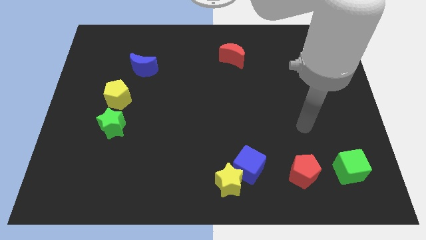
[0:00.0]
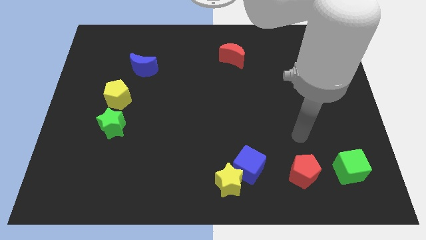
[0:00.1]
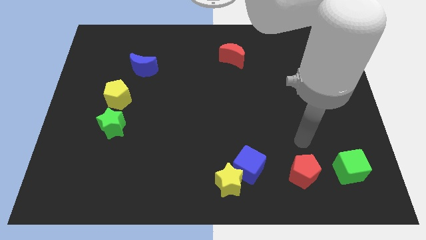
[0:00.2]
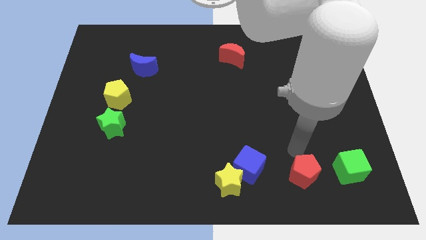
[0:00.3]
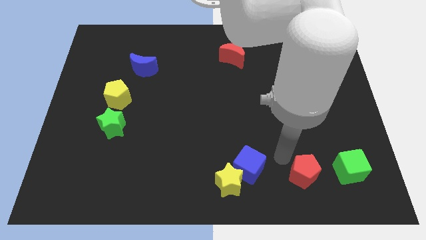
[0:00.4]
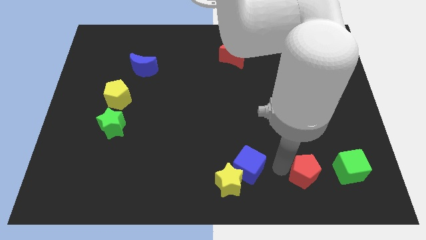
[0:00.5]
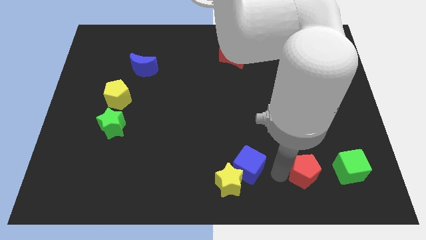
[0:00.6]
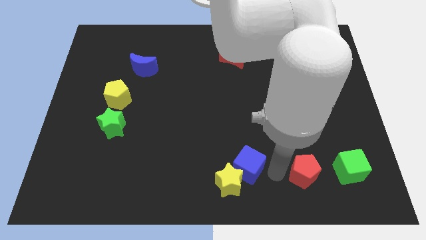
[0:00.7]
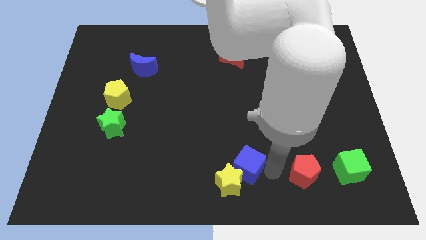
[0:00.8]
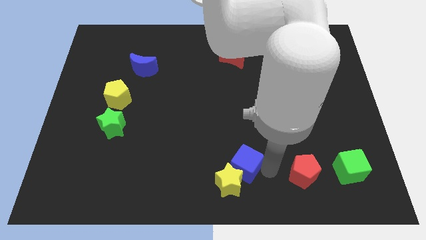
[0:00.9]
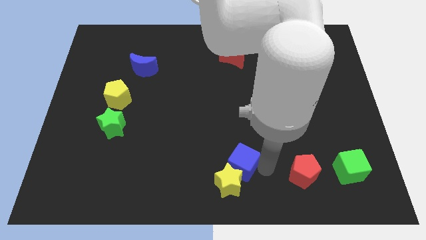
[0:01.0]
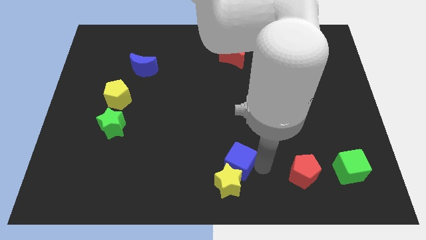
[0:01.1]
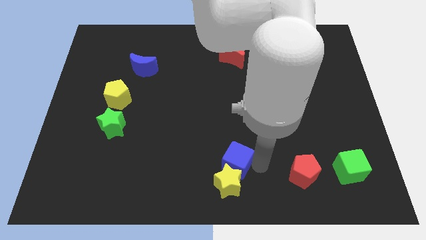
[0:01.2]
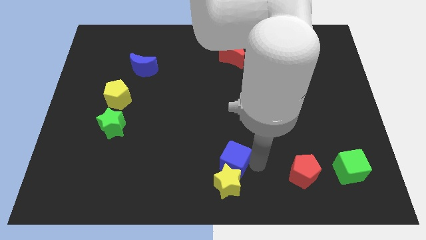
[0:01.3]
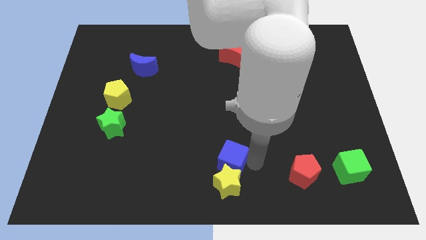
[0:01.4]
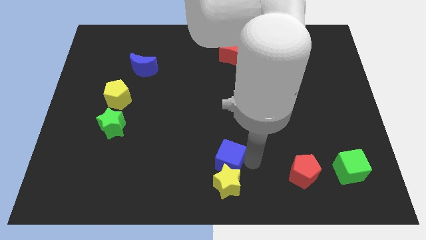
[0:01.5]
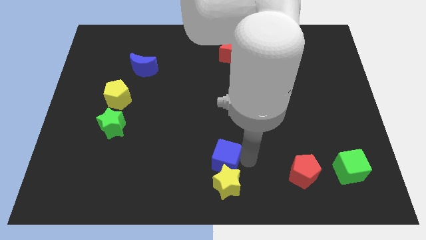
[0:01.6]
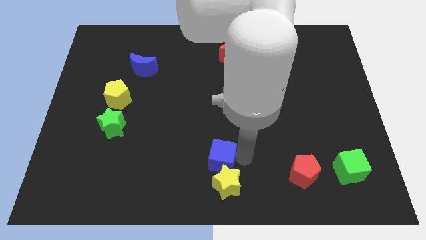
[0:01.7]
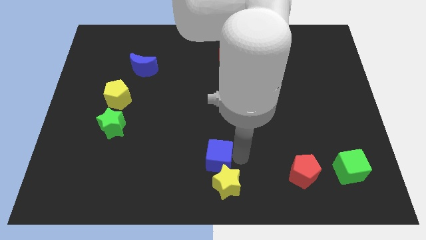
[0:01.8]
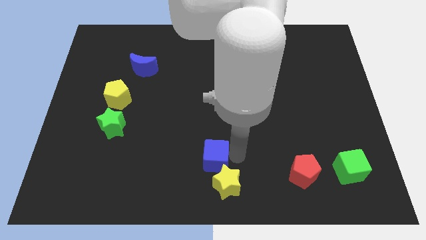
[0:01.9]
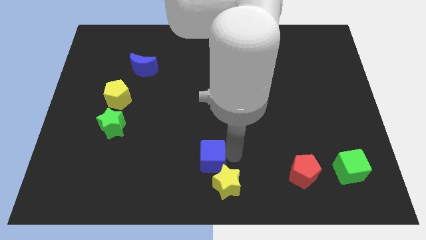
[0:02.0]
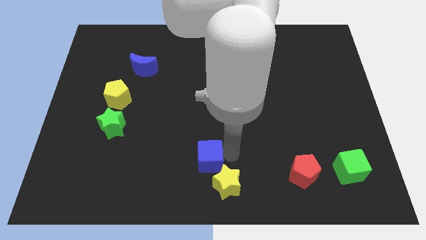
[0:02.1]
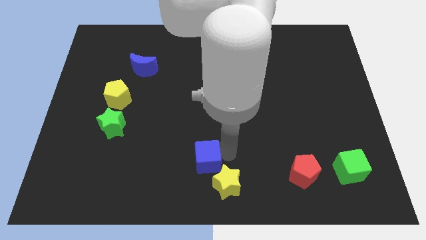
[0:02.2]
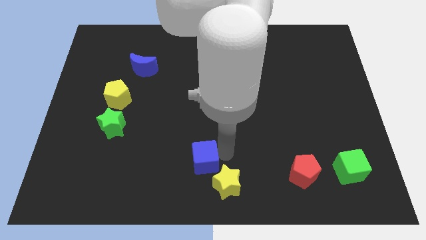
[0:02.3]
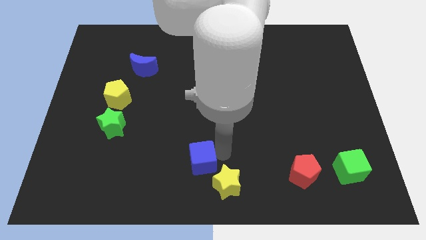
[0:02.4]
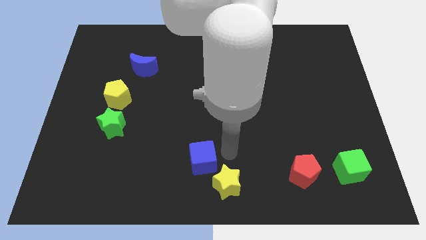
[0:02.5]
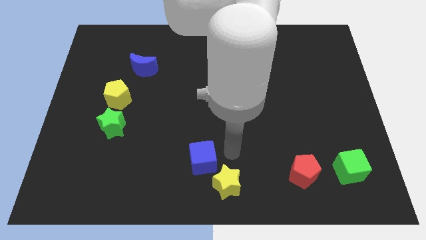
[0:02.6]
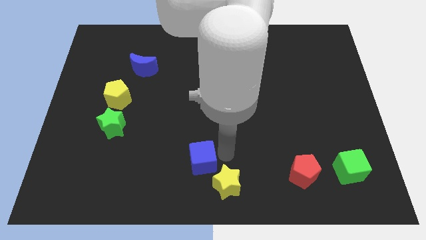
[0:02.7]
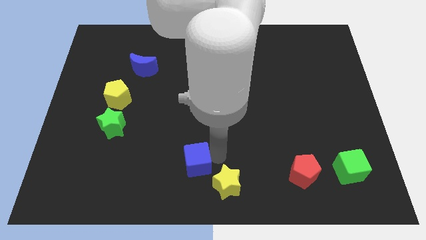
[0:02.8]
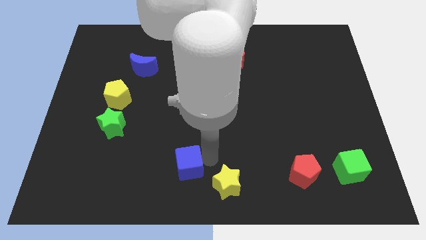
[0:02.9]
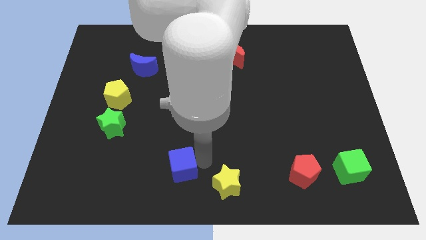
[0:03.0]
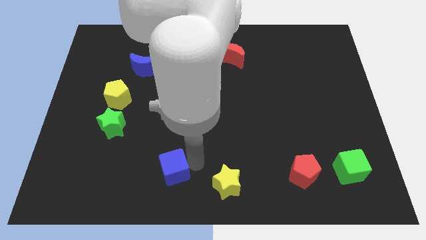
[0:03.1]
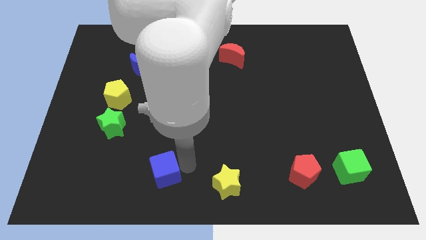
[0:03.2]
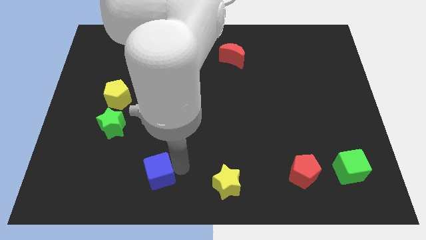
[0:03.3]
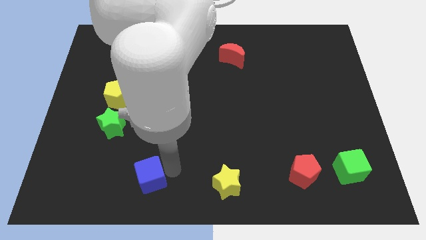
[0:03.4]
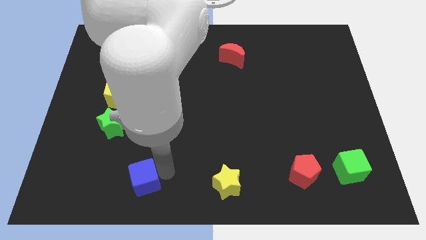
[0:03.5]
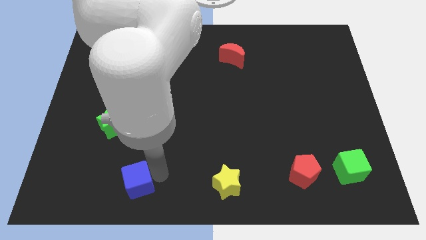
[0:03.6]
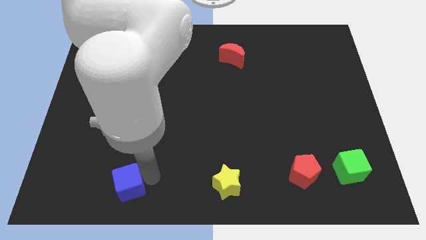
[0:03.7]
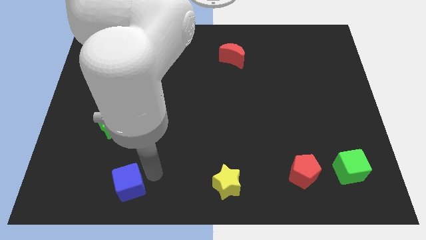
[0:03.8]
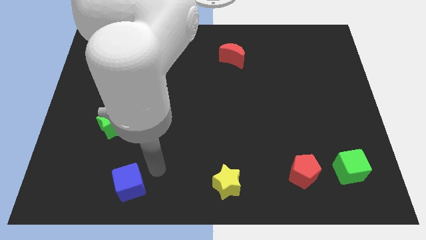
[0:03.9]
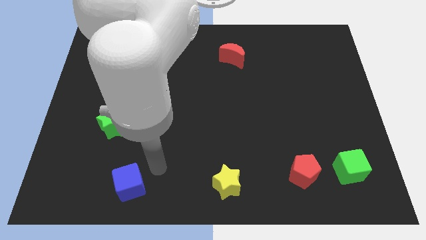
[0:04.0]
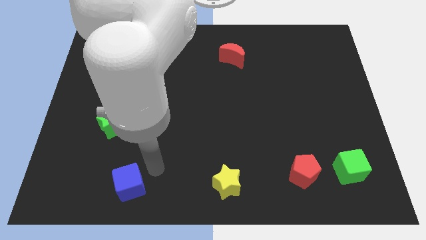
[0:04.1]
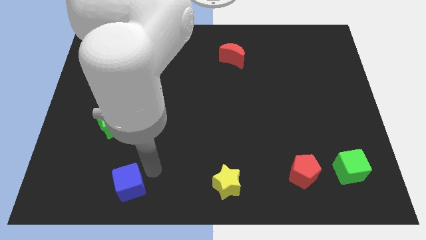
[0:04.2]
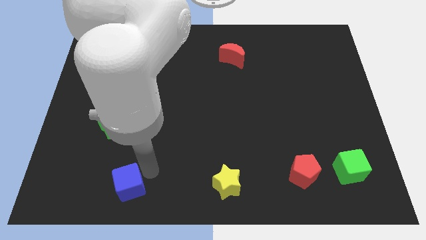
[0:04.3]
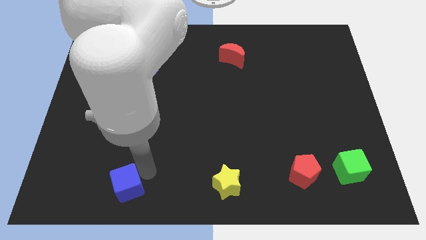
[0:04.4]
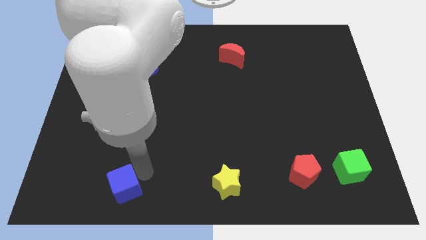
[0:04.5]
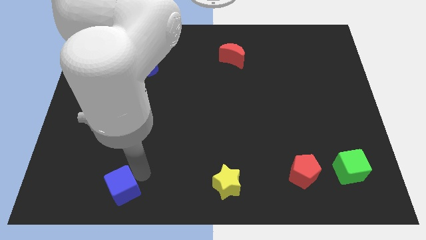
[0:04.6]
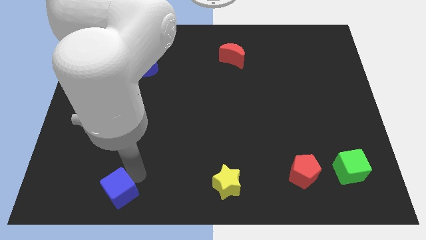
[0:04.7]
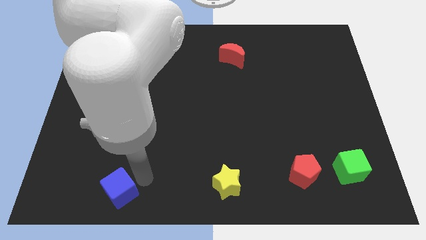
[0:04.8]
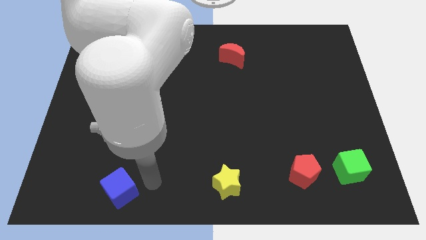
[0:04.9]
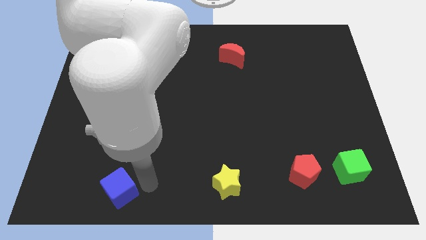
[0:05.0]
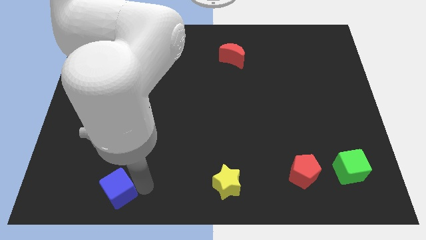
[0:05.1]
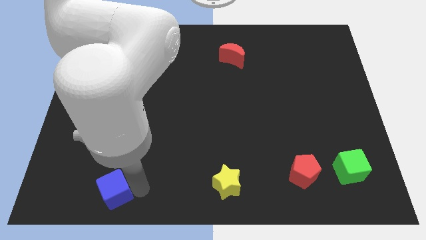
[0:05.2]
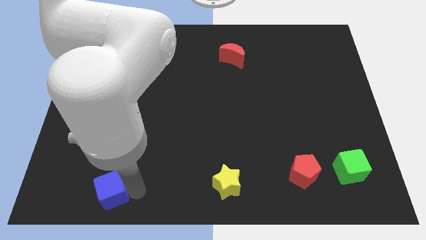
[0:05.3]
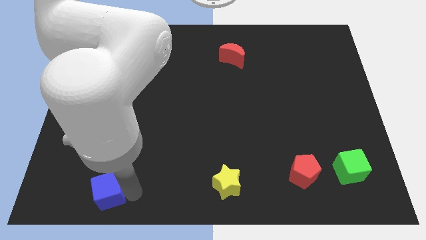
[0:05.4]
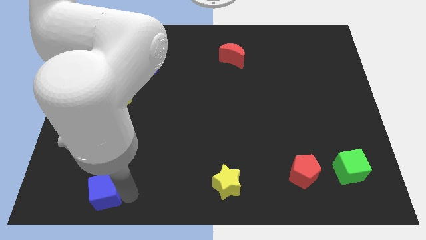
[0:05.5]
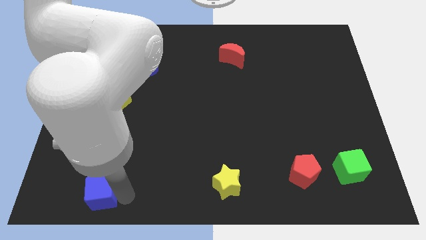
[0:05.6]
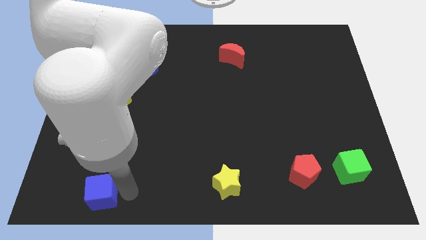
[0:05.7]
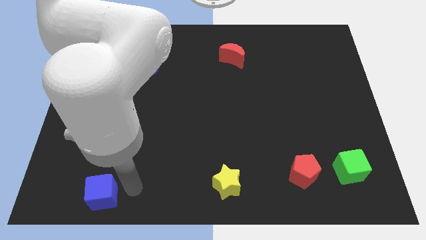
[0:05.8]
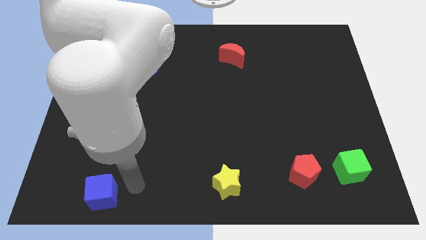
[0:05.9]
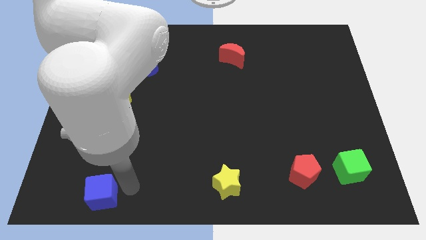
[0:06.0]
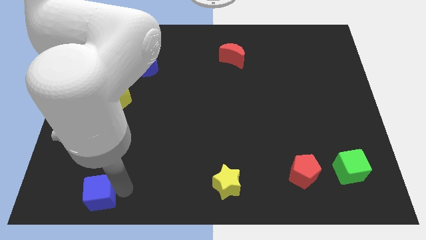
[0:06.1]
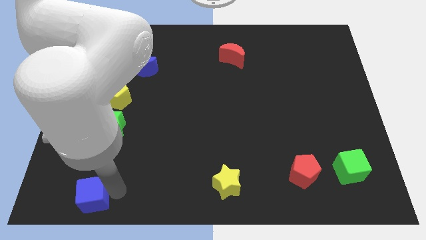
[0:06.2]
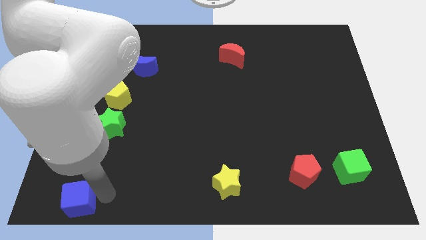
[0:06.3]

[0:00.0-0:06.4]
slide the blue cube to the lower left corner
